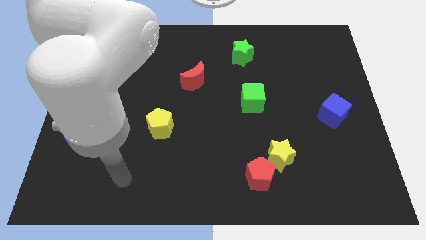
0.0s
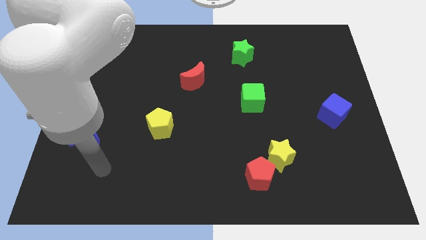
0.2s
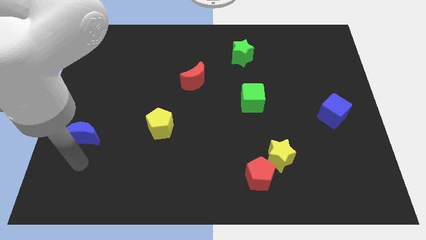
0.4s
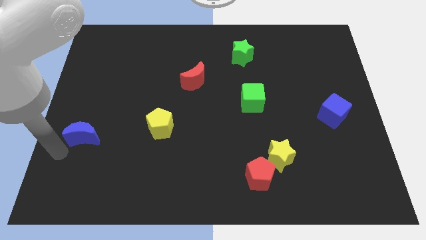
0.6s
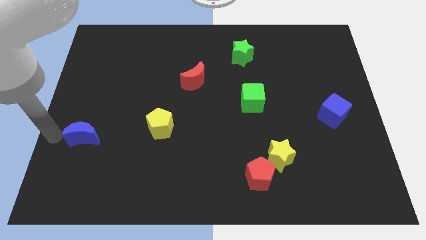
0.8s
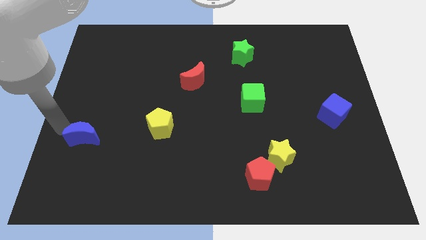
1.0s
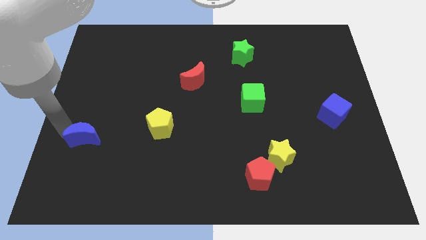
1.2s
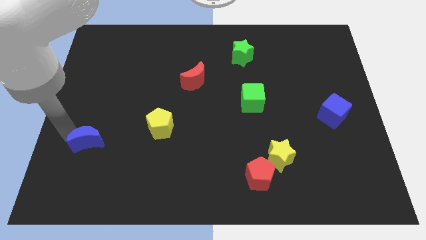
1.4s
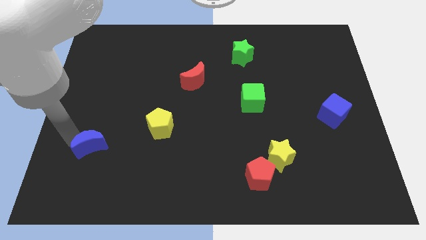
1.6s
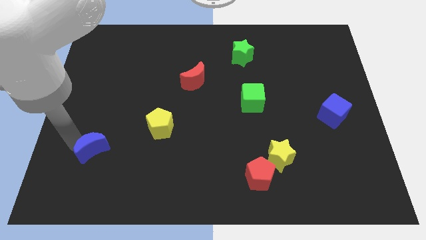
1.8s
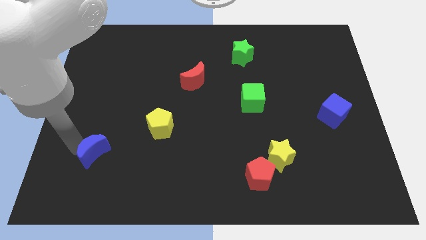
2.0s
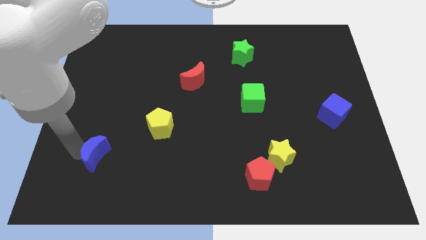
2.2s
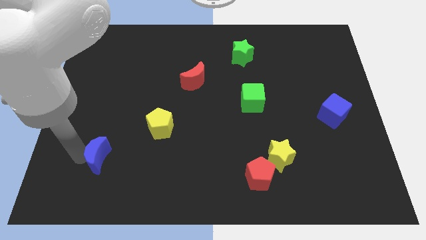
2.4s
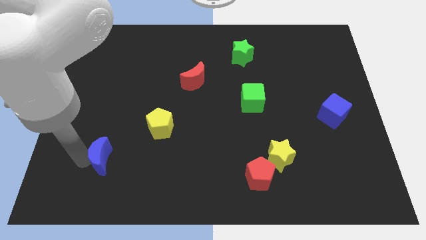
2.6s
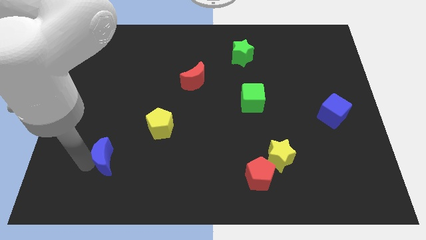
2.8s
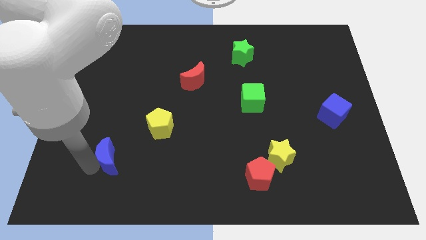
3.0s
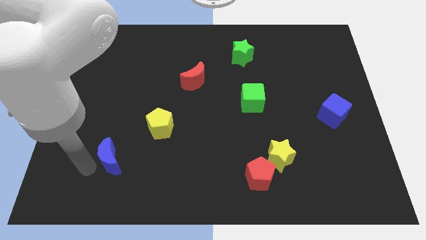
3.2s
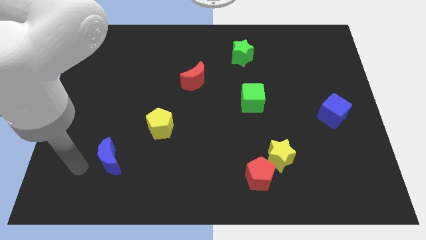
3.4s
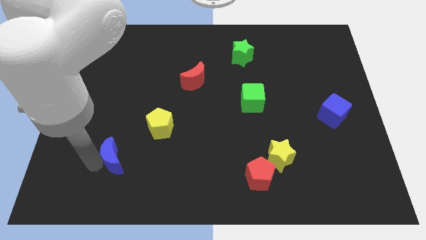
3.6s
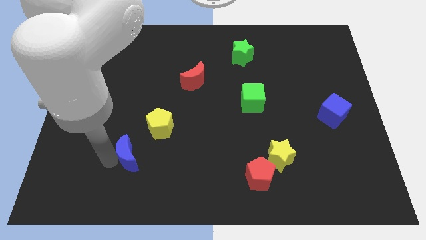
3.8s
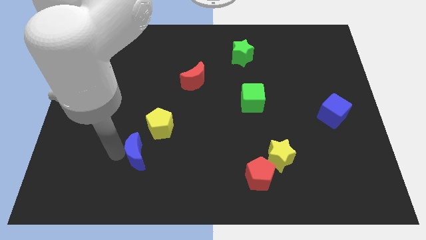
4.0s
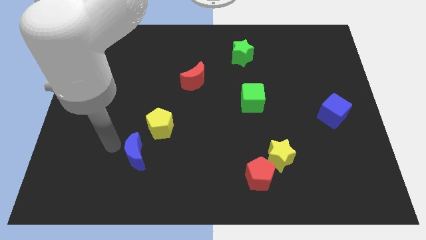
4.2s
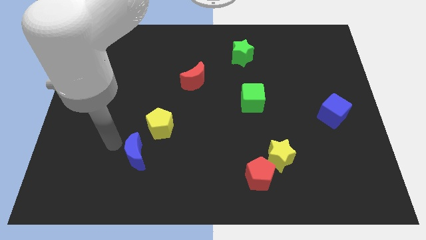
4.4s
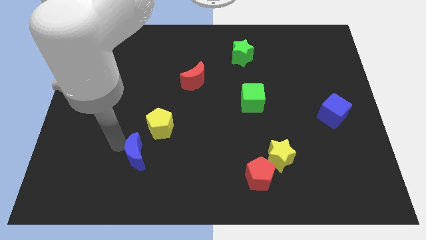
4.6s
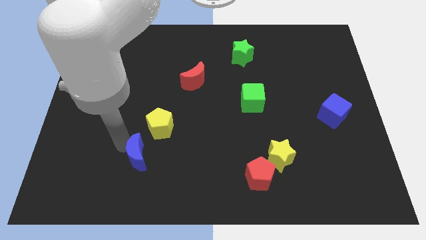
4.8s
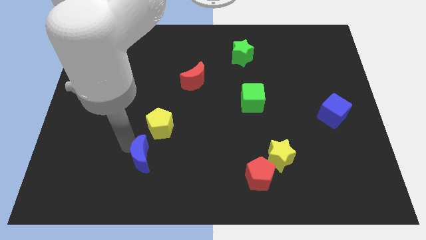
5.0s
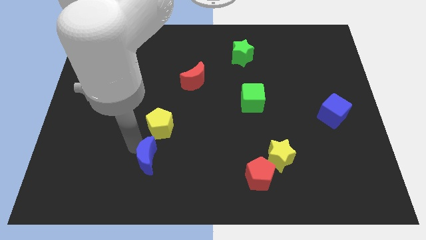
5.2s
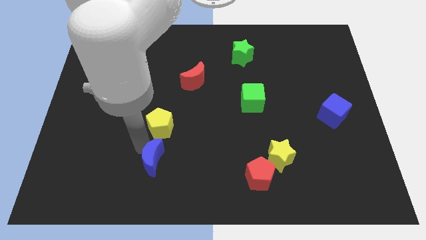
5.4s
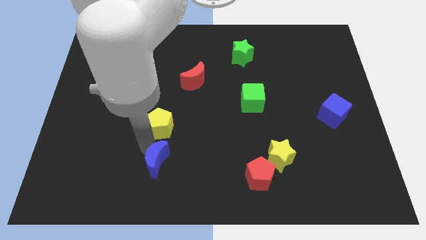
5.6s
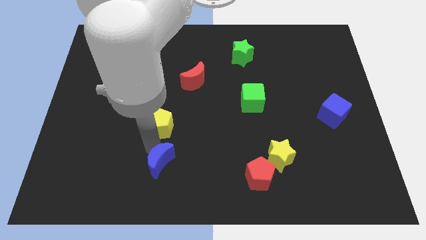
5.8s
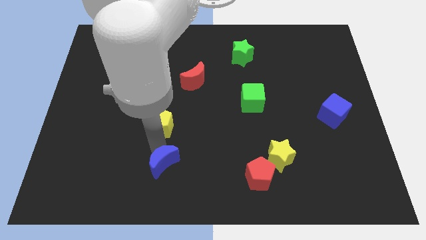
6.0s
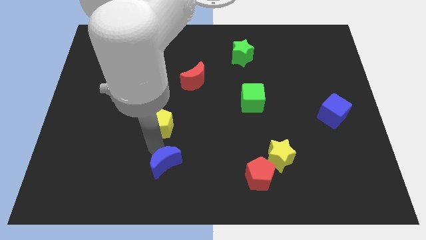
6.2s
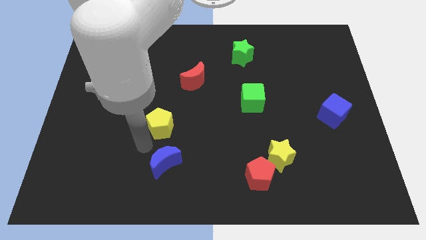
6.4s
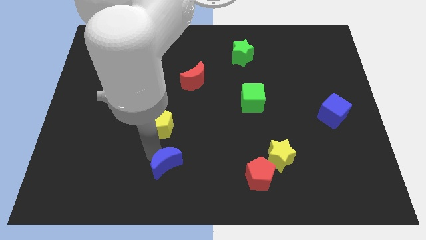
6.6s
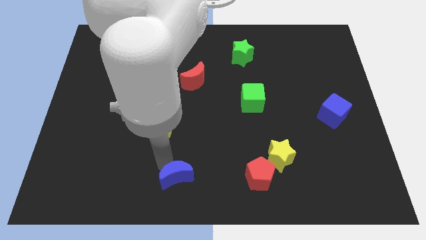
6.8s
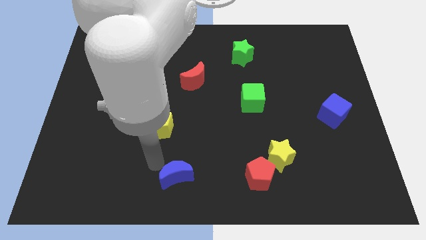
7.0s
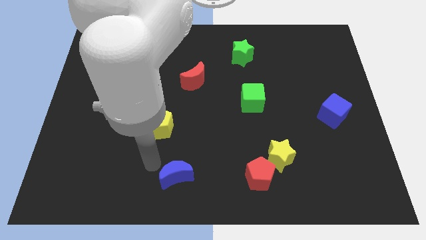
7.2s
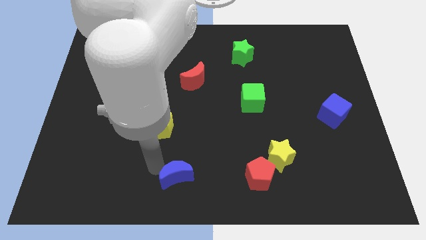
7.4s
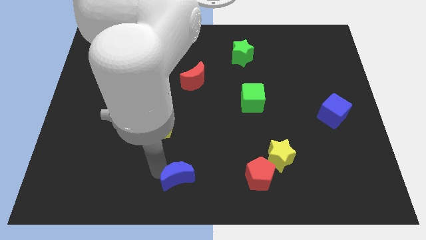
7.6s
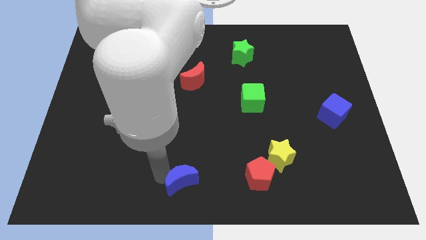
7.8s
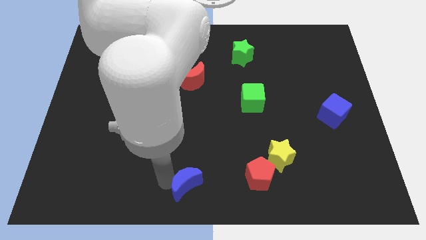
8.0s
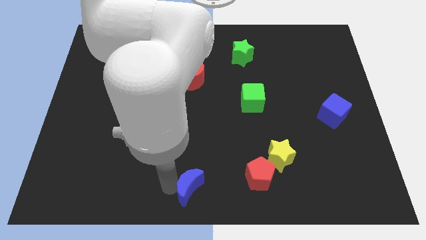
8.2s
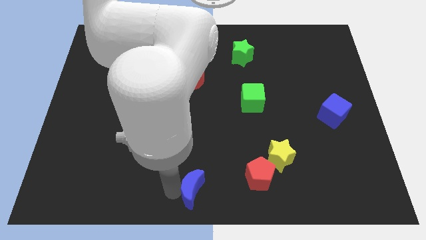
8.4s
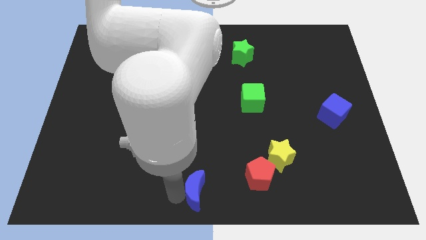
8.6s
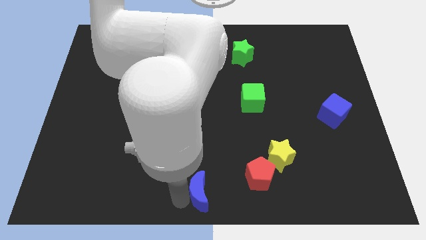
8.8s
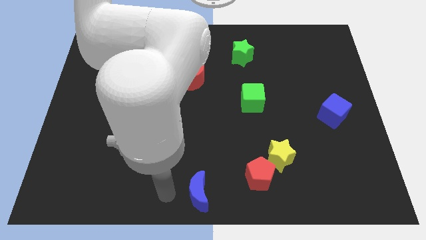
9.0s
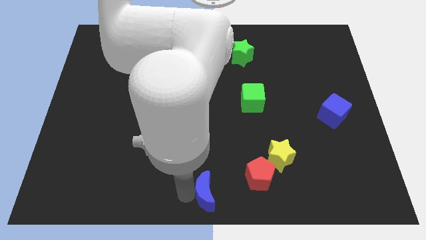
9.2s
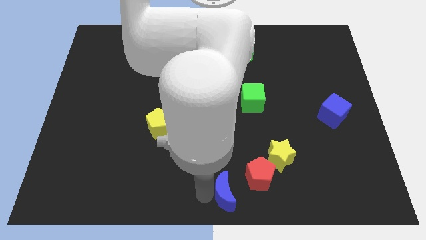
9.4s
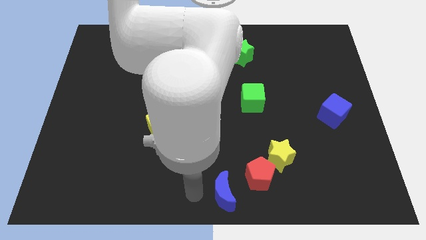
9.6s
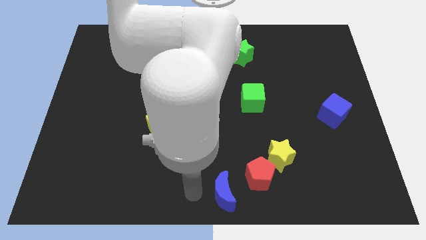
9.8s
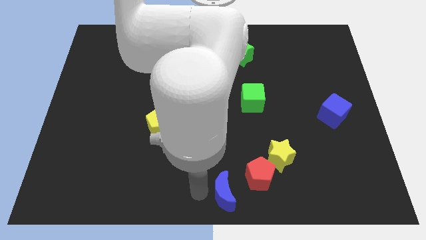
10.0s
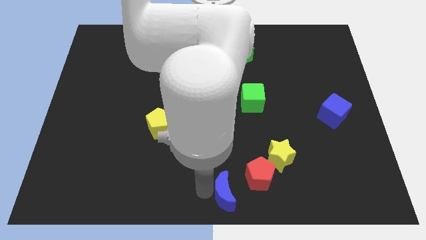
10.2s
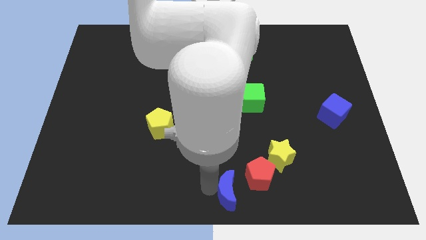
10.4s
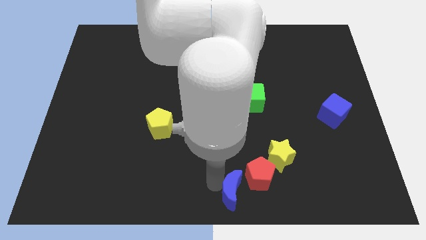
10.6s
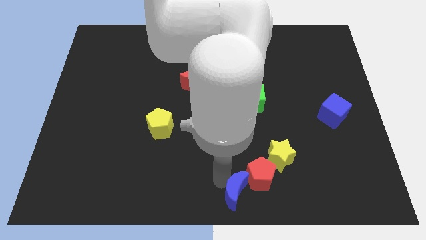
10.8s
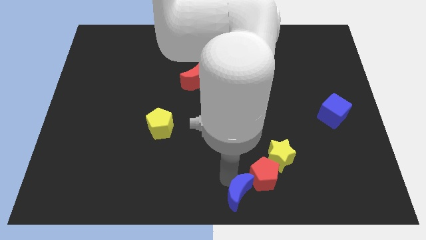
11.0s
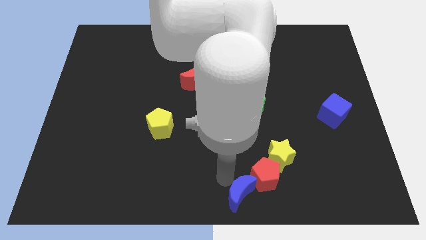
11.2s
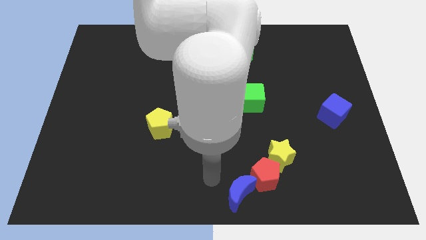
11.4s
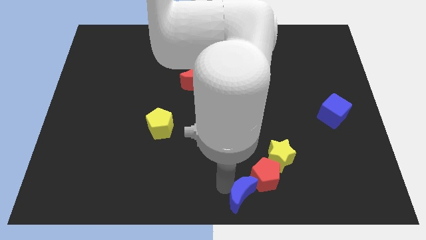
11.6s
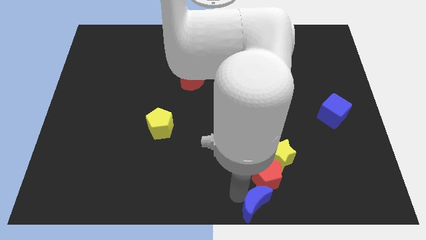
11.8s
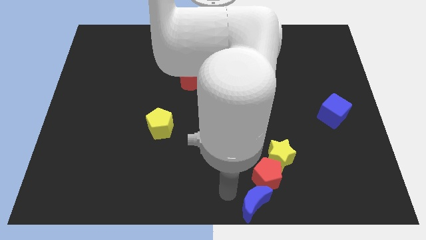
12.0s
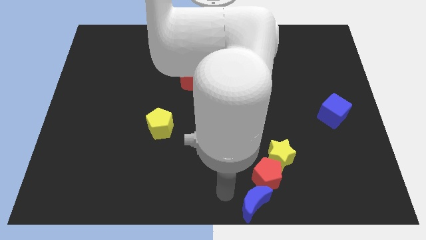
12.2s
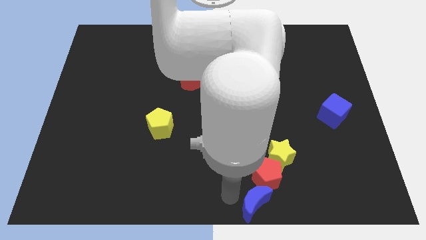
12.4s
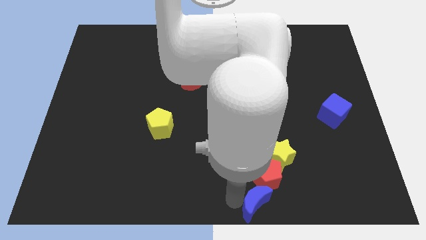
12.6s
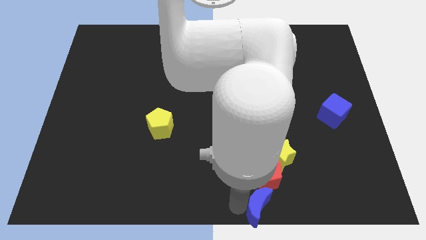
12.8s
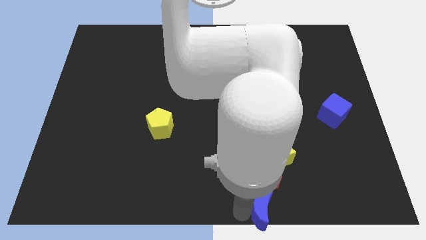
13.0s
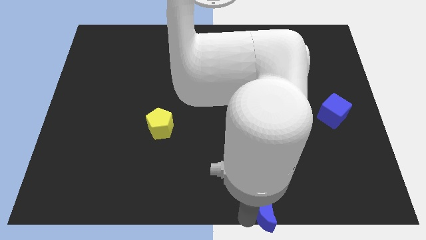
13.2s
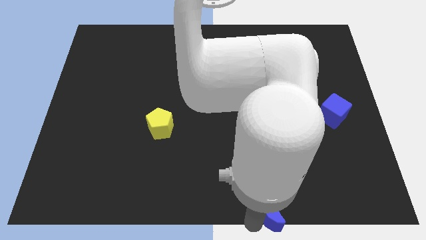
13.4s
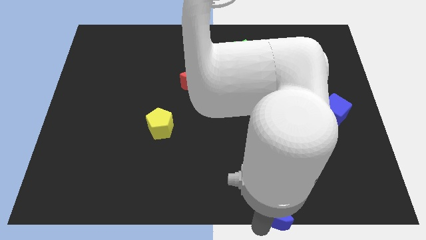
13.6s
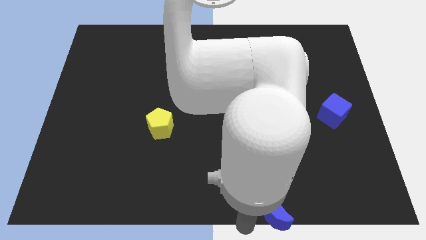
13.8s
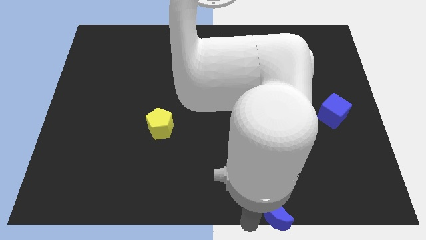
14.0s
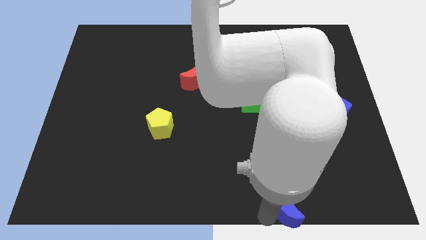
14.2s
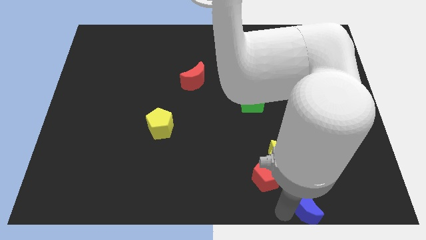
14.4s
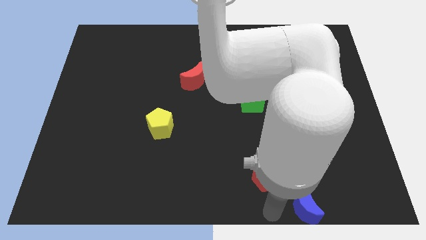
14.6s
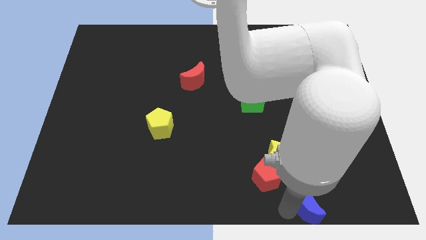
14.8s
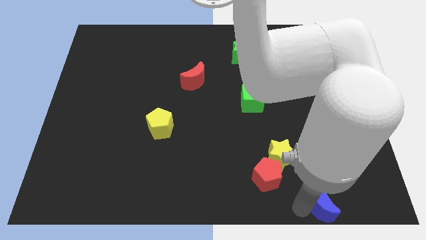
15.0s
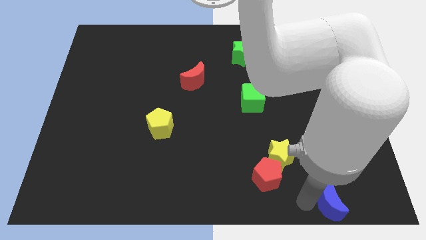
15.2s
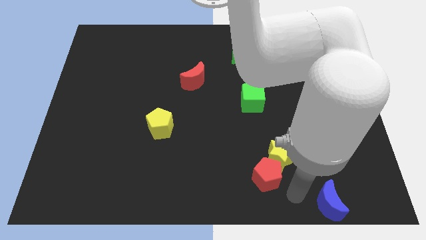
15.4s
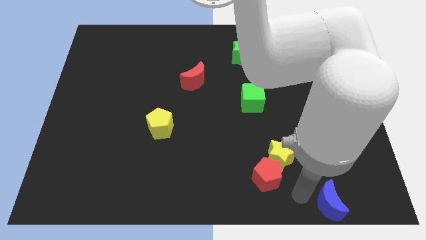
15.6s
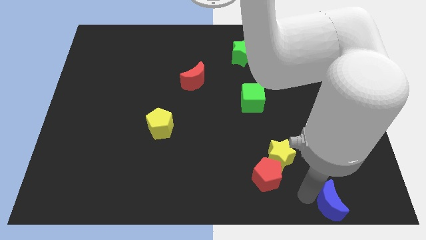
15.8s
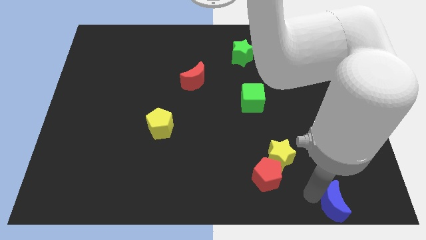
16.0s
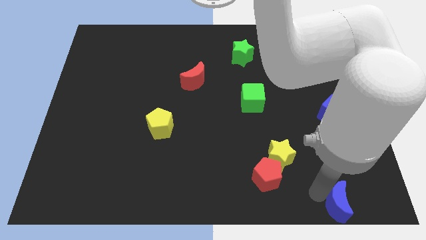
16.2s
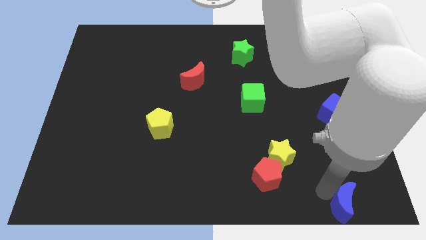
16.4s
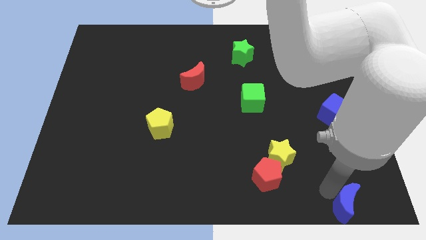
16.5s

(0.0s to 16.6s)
put the blue moon to the bottom right
